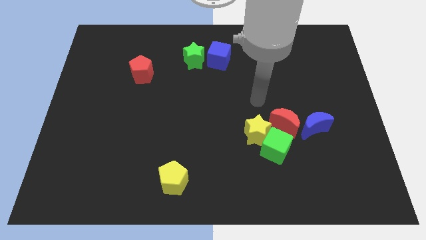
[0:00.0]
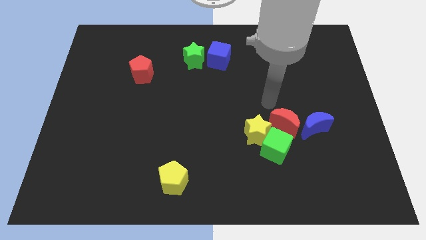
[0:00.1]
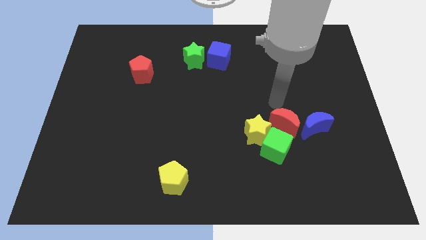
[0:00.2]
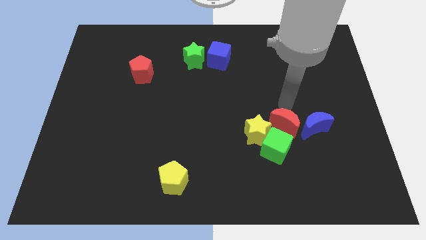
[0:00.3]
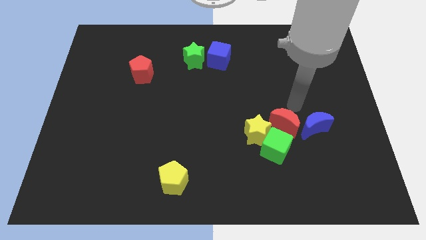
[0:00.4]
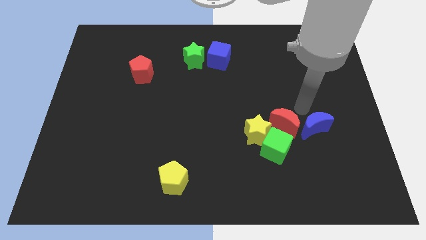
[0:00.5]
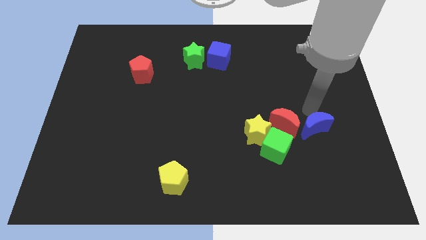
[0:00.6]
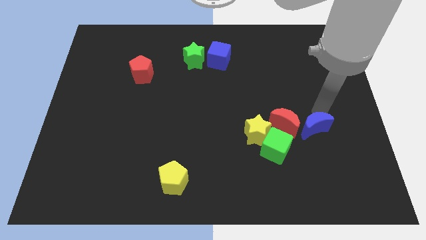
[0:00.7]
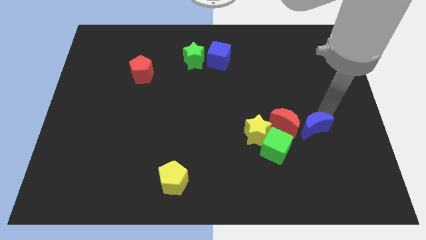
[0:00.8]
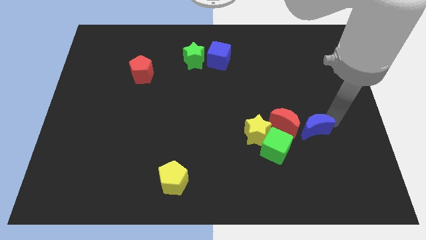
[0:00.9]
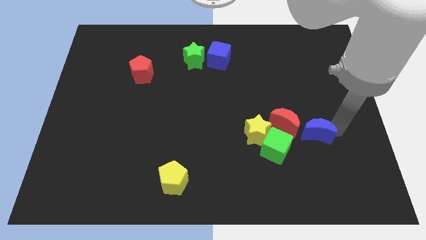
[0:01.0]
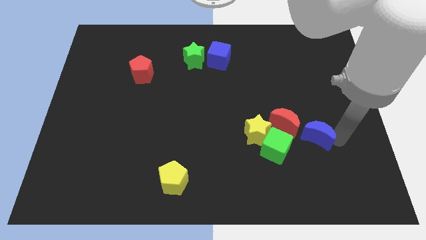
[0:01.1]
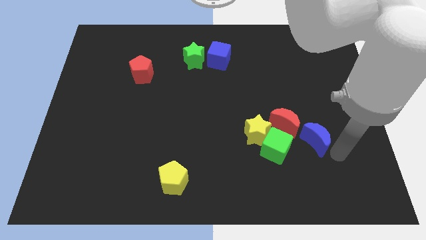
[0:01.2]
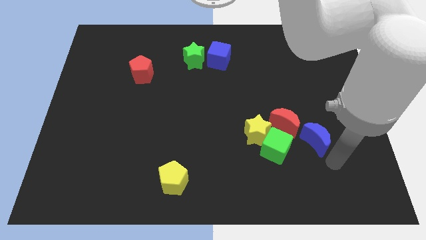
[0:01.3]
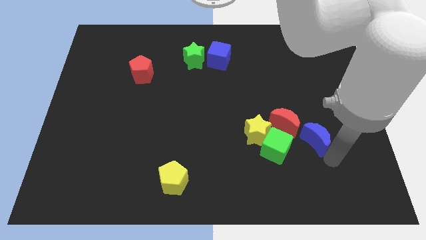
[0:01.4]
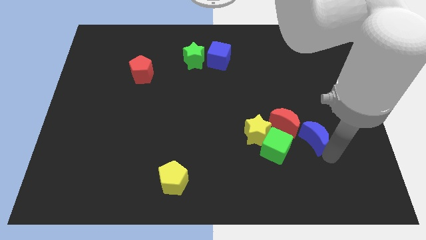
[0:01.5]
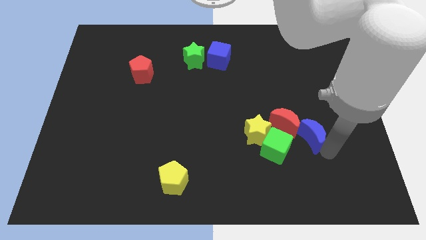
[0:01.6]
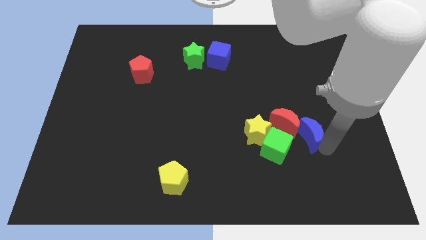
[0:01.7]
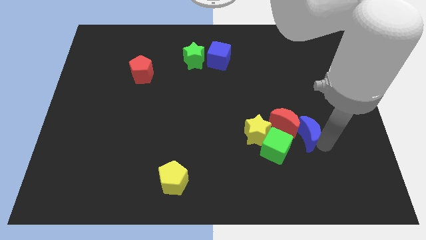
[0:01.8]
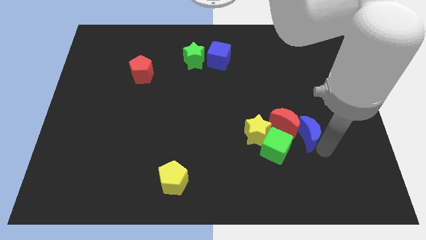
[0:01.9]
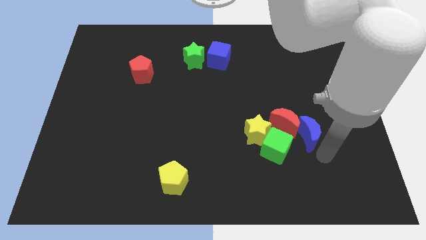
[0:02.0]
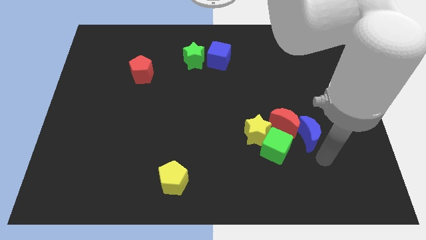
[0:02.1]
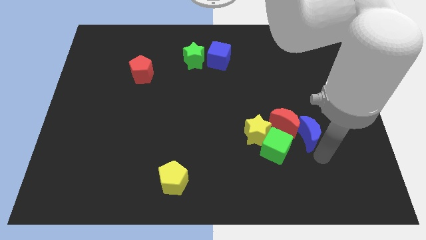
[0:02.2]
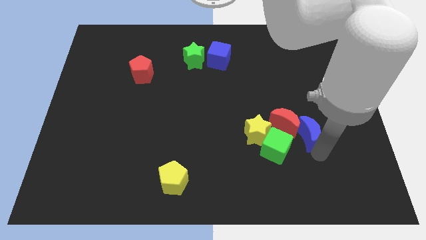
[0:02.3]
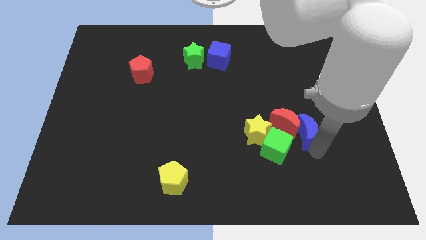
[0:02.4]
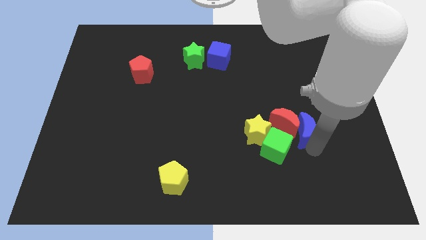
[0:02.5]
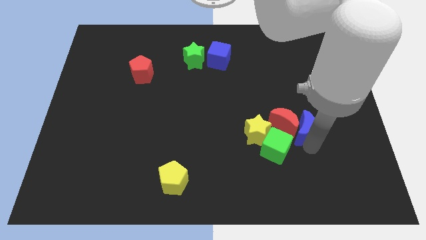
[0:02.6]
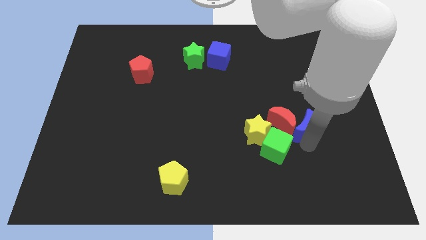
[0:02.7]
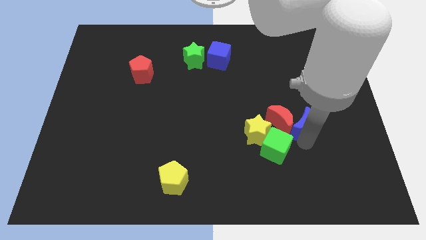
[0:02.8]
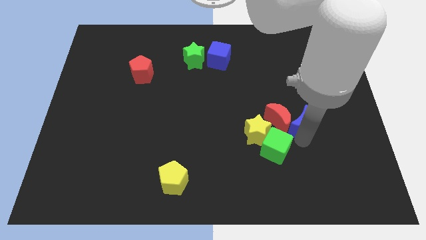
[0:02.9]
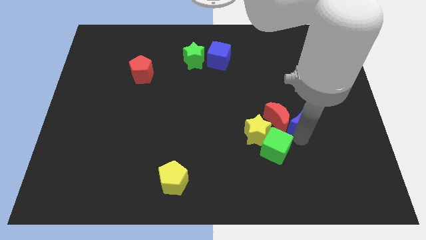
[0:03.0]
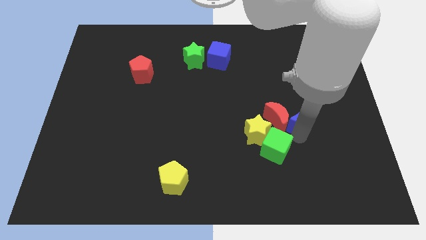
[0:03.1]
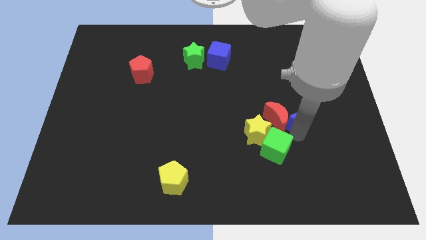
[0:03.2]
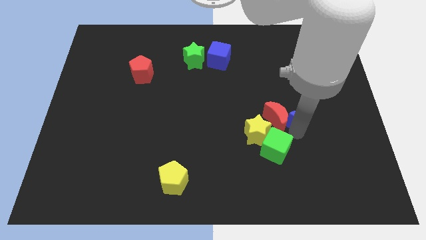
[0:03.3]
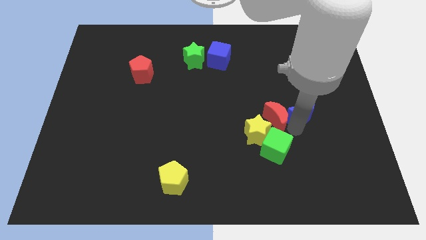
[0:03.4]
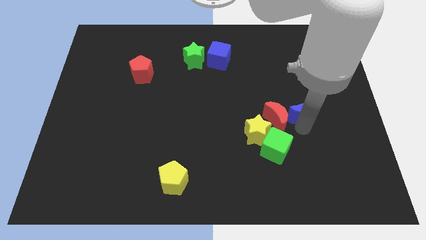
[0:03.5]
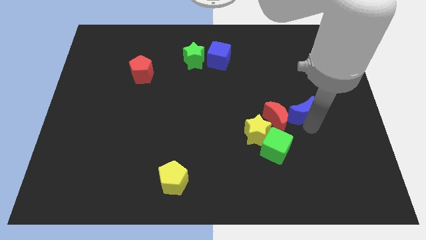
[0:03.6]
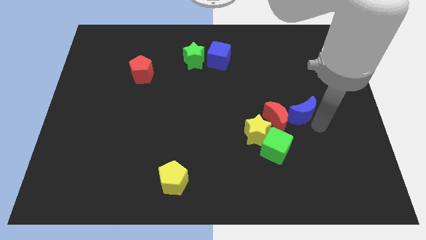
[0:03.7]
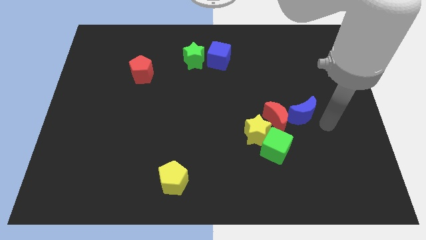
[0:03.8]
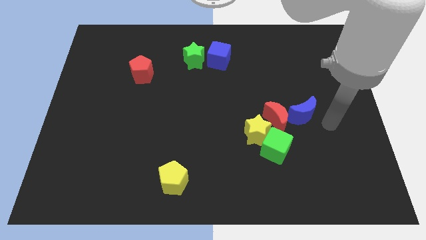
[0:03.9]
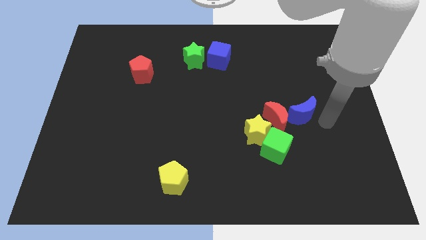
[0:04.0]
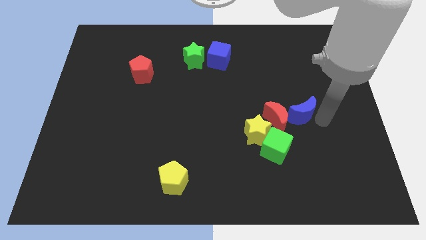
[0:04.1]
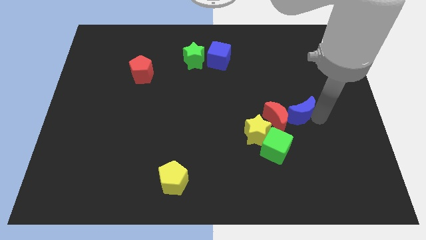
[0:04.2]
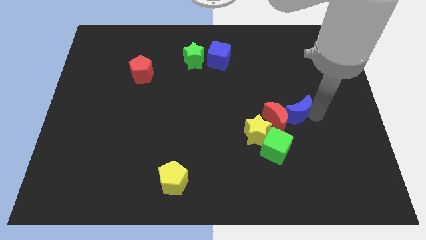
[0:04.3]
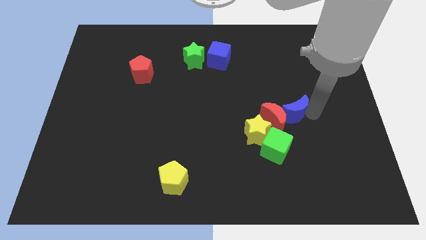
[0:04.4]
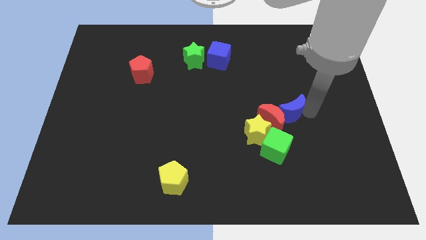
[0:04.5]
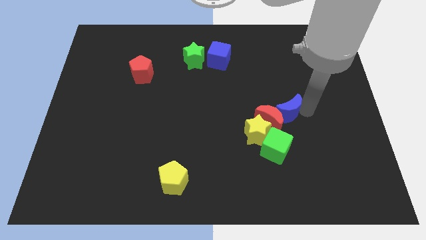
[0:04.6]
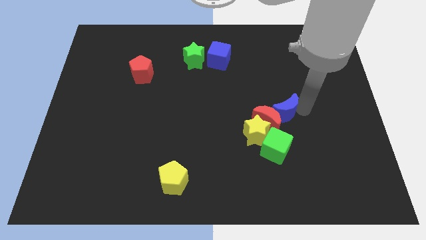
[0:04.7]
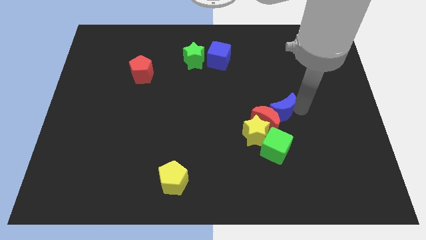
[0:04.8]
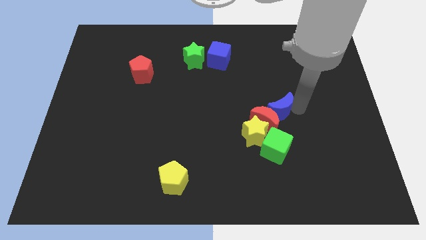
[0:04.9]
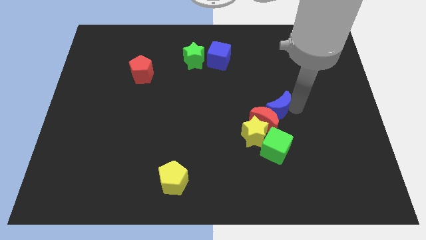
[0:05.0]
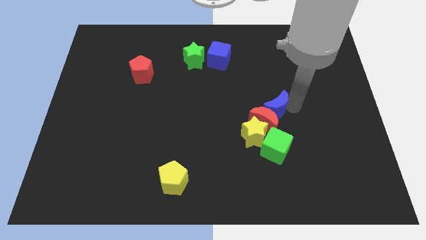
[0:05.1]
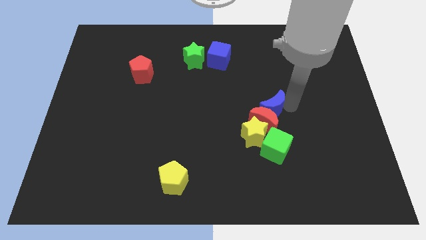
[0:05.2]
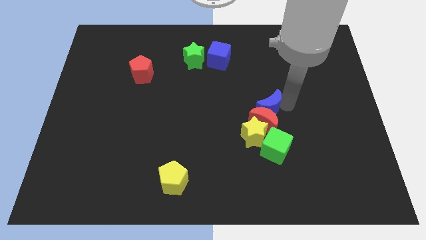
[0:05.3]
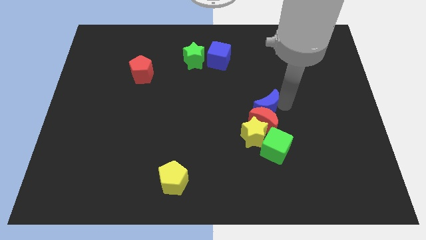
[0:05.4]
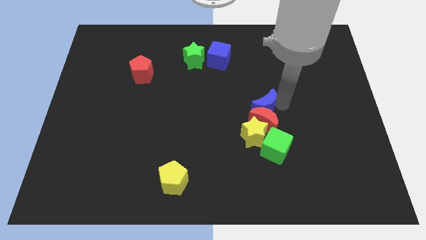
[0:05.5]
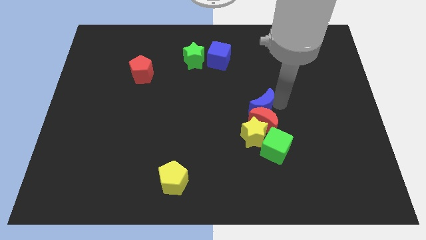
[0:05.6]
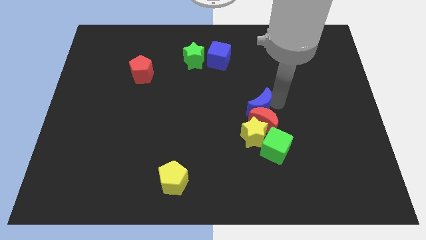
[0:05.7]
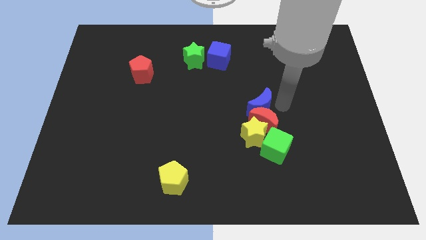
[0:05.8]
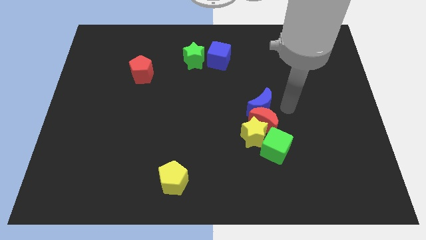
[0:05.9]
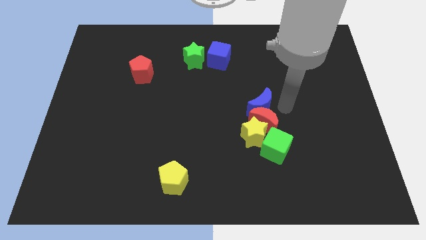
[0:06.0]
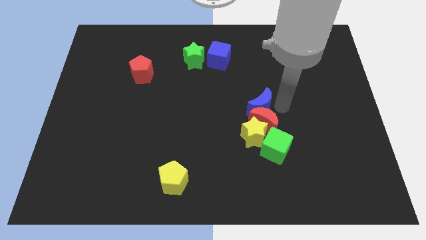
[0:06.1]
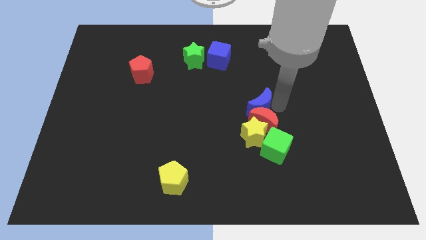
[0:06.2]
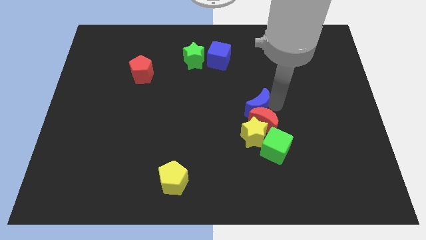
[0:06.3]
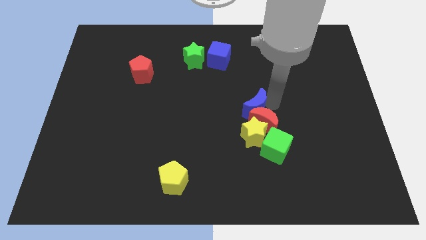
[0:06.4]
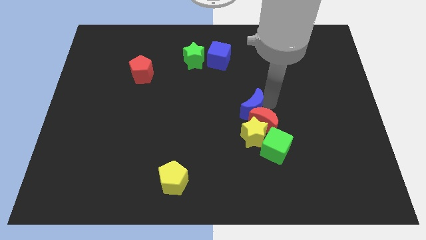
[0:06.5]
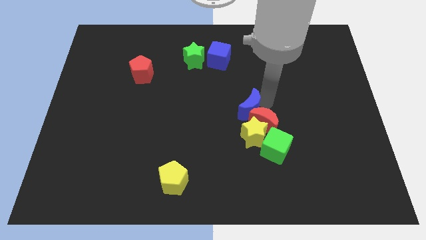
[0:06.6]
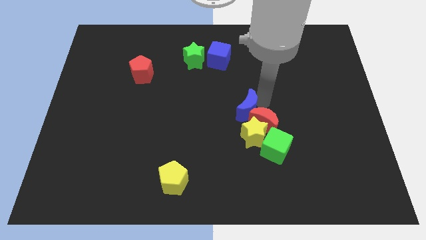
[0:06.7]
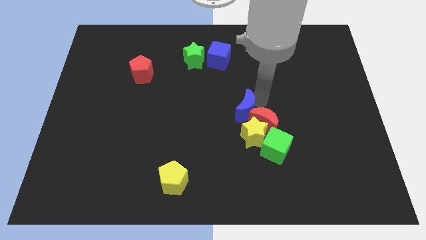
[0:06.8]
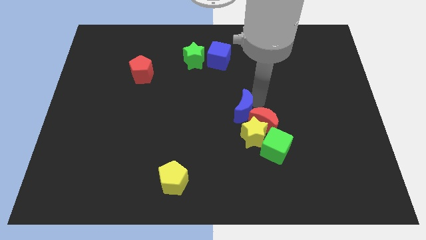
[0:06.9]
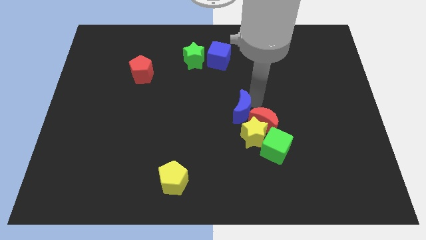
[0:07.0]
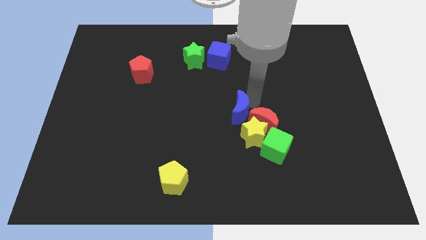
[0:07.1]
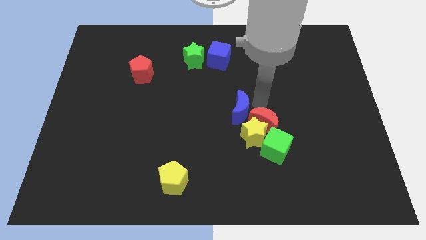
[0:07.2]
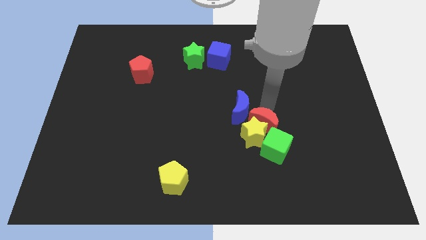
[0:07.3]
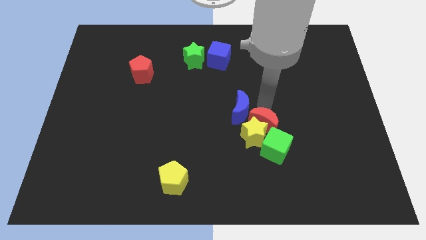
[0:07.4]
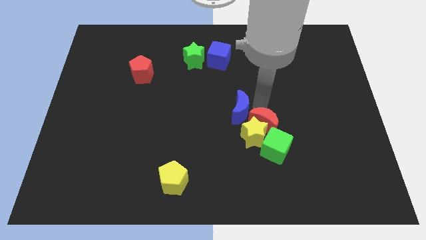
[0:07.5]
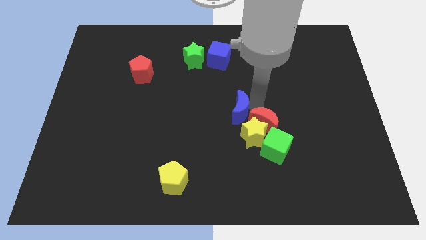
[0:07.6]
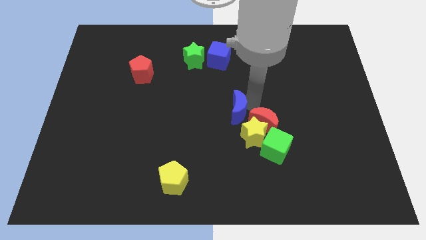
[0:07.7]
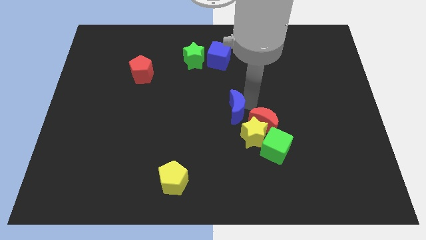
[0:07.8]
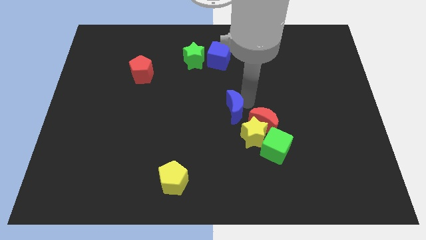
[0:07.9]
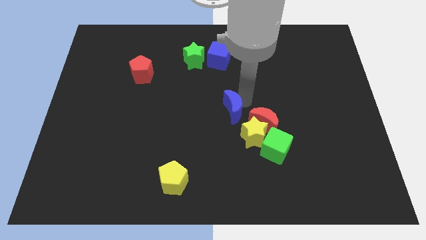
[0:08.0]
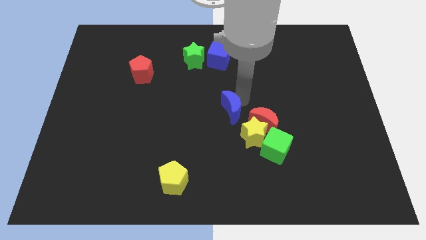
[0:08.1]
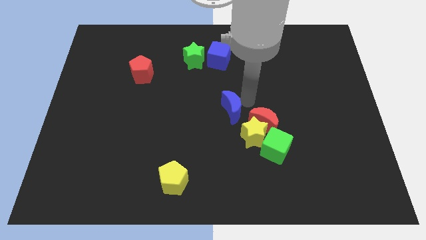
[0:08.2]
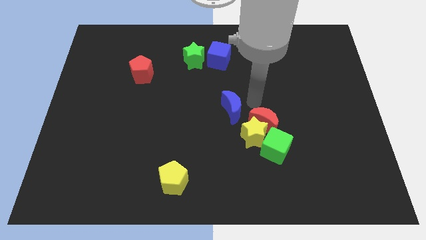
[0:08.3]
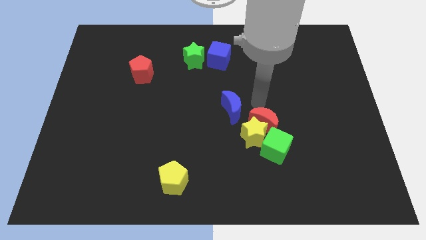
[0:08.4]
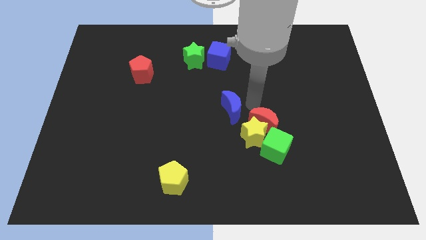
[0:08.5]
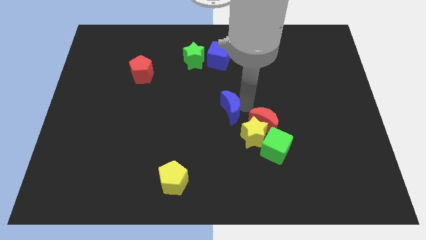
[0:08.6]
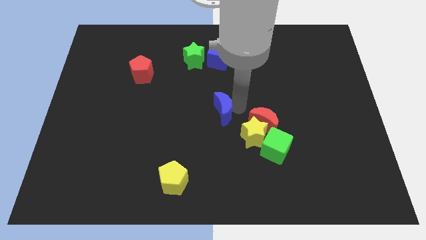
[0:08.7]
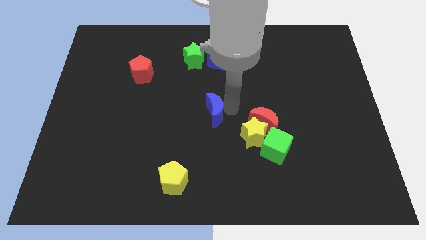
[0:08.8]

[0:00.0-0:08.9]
push the blue moon left
